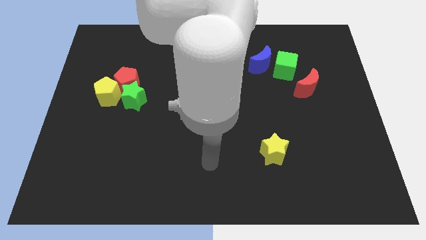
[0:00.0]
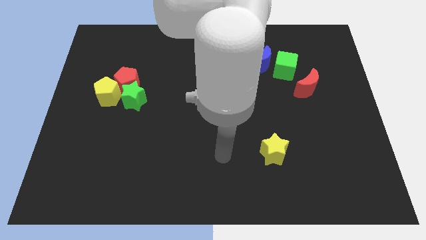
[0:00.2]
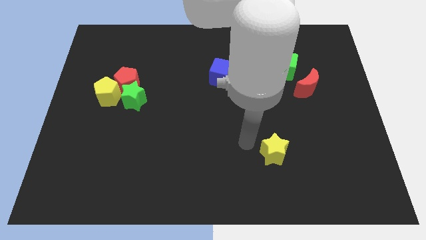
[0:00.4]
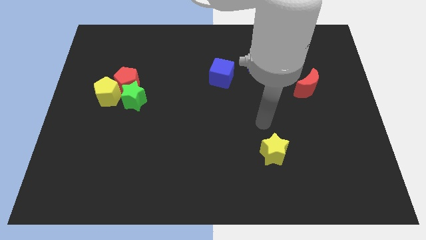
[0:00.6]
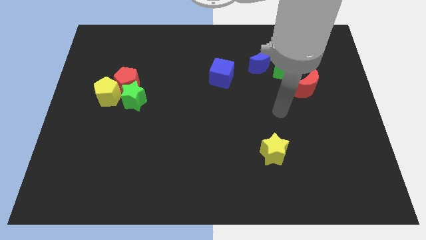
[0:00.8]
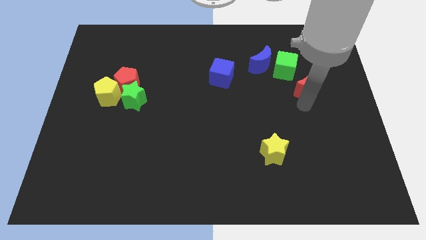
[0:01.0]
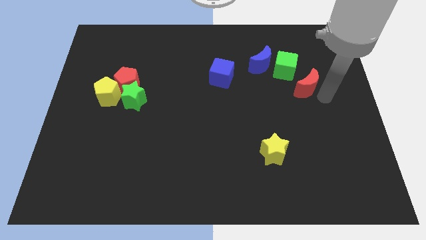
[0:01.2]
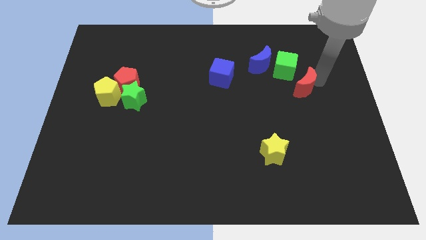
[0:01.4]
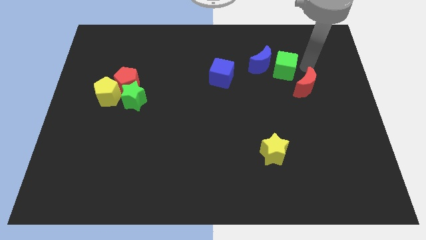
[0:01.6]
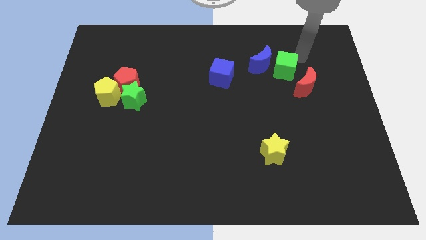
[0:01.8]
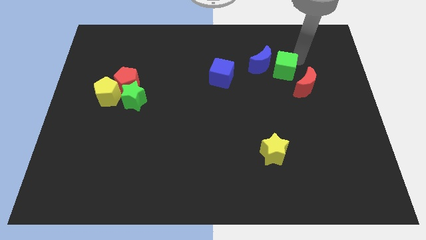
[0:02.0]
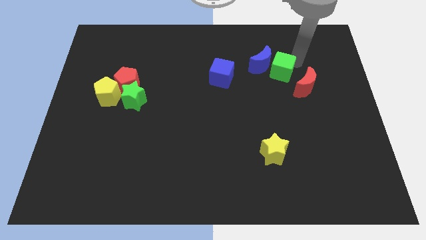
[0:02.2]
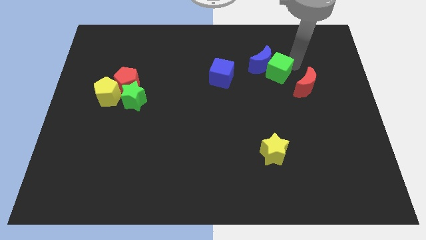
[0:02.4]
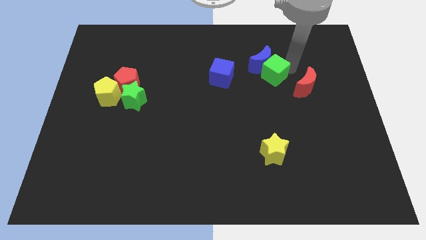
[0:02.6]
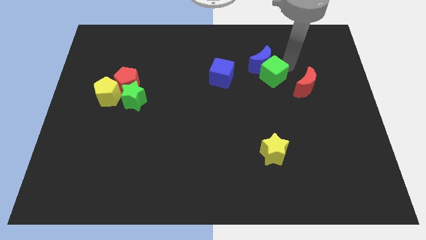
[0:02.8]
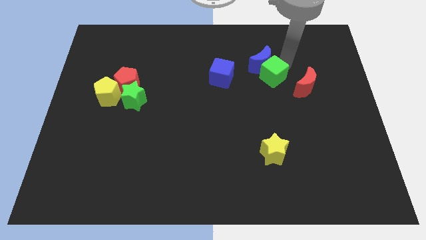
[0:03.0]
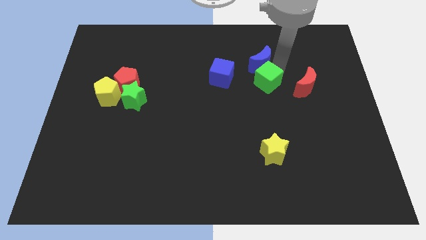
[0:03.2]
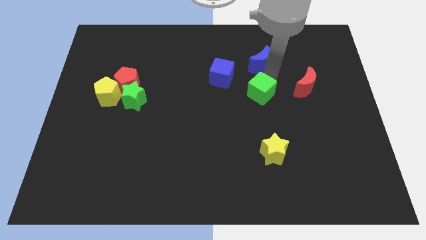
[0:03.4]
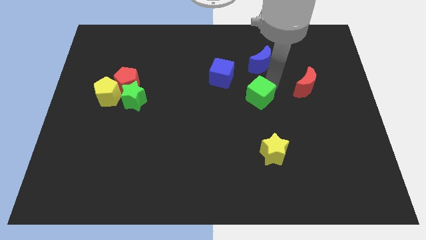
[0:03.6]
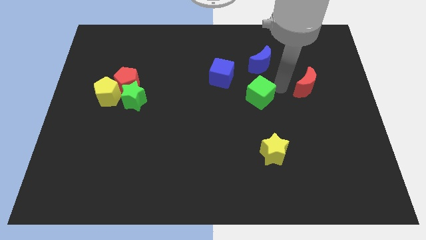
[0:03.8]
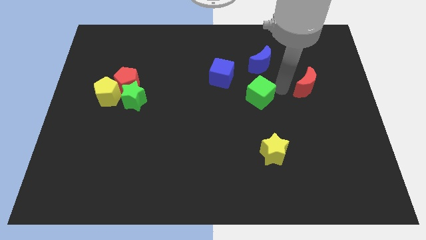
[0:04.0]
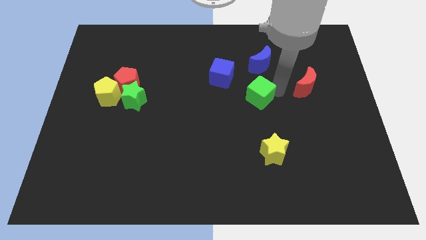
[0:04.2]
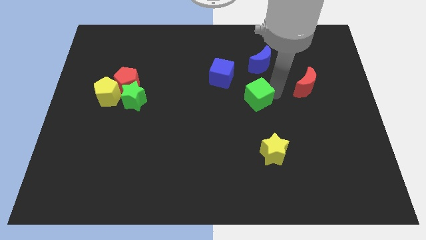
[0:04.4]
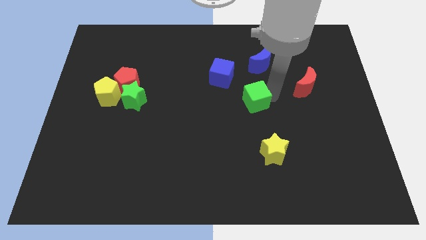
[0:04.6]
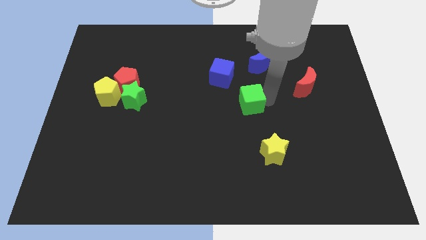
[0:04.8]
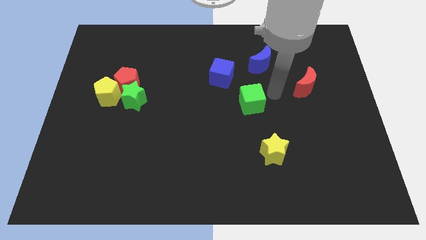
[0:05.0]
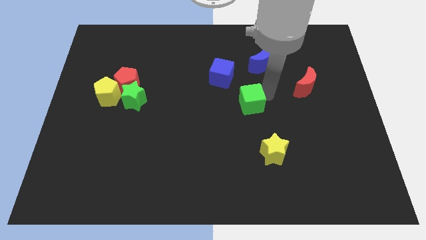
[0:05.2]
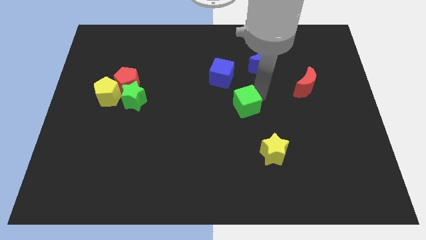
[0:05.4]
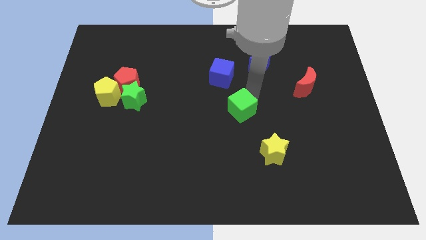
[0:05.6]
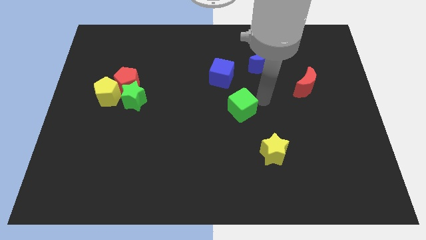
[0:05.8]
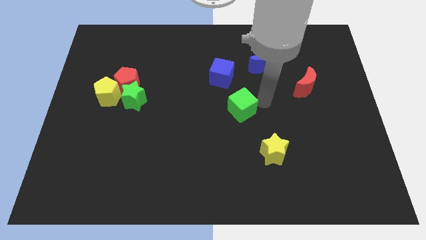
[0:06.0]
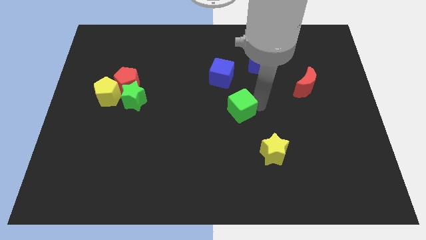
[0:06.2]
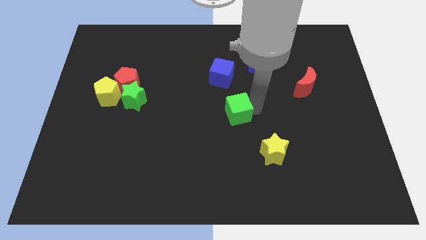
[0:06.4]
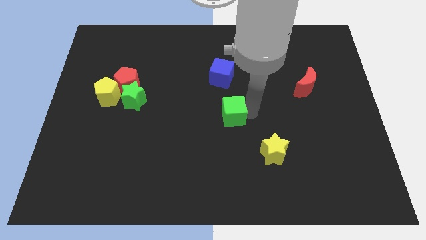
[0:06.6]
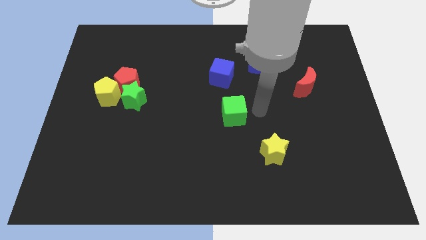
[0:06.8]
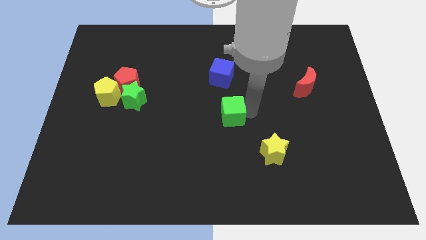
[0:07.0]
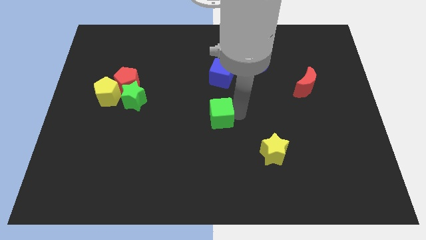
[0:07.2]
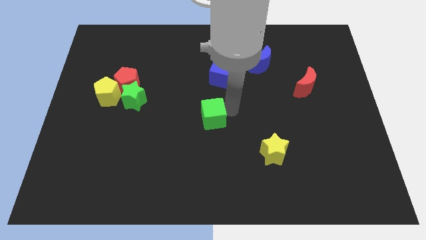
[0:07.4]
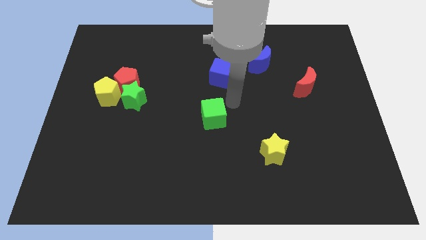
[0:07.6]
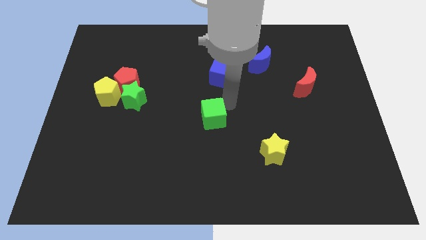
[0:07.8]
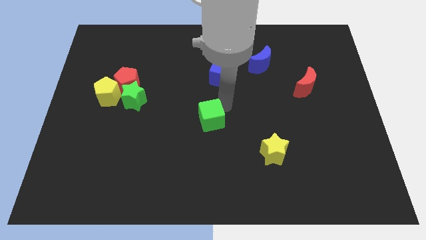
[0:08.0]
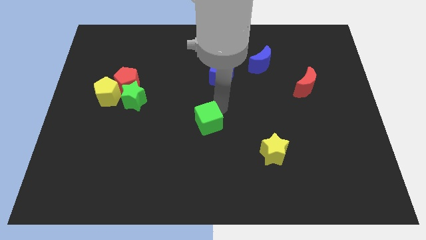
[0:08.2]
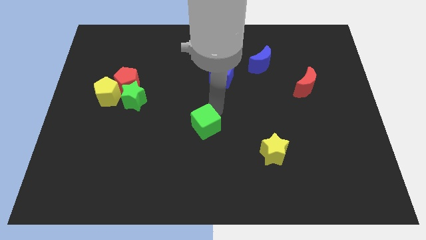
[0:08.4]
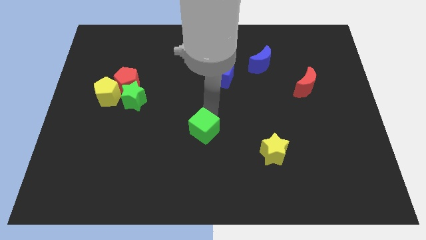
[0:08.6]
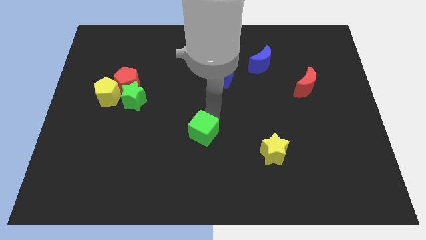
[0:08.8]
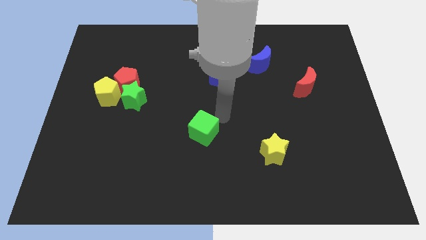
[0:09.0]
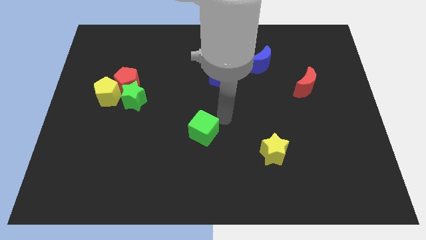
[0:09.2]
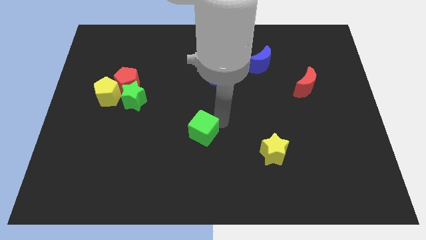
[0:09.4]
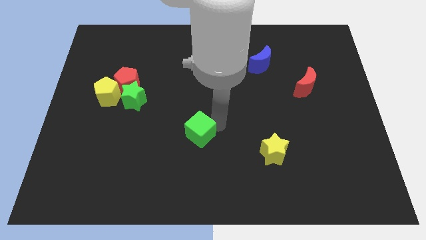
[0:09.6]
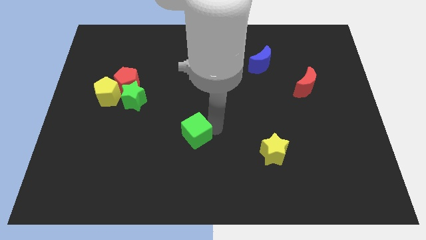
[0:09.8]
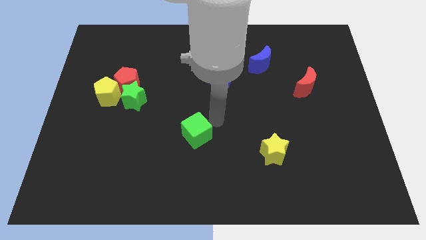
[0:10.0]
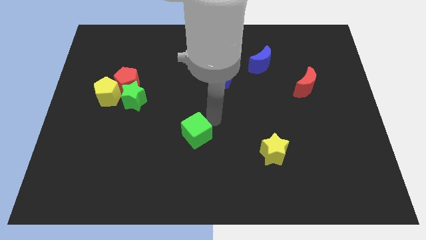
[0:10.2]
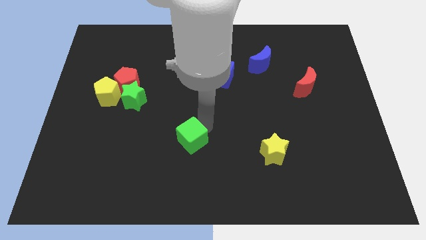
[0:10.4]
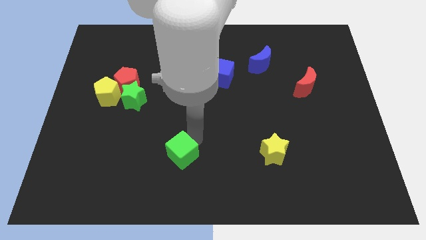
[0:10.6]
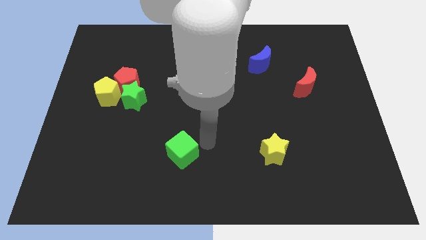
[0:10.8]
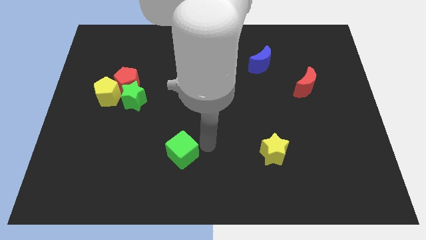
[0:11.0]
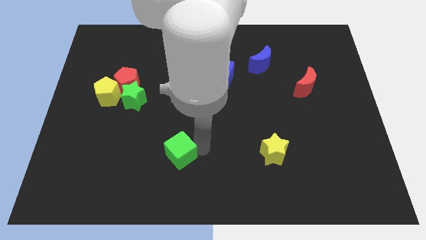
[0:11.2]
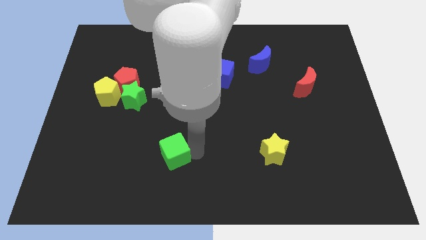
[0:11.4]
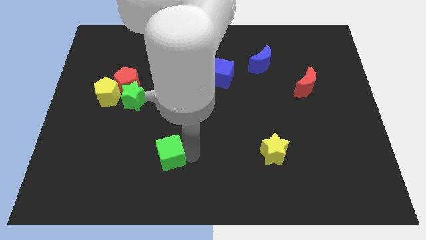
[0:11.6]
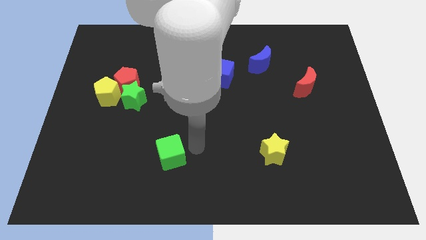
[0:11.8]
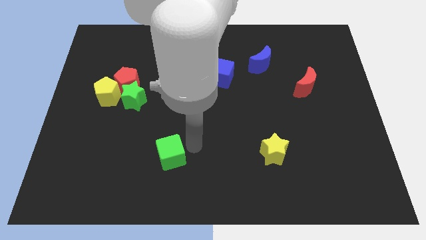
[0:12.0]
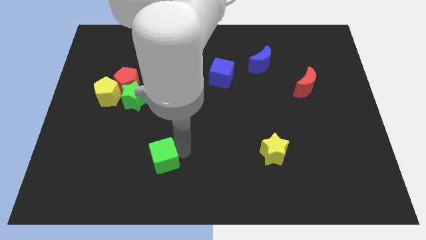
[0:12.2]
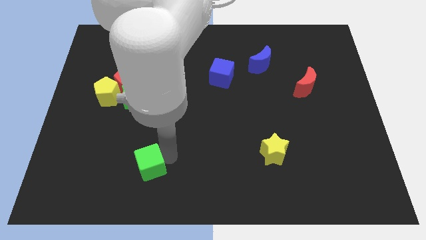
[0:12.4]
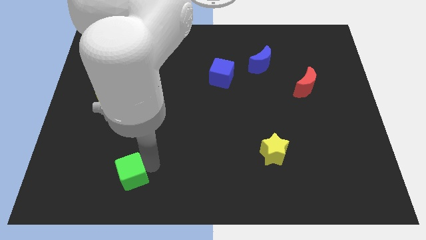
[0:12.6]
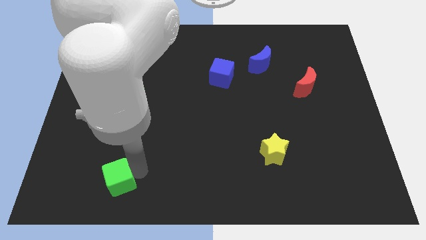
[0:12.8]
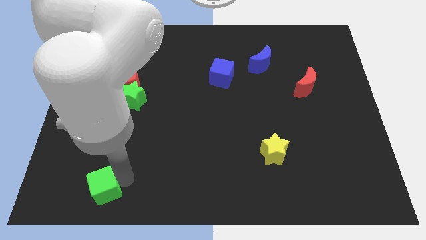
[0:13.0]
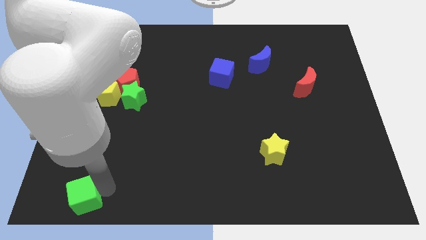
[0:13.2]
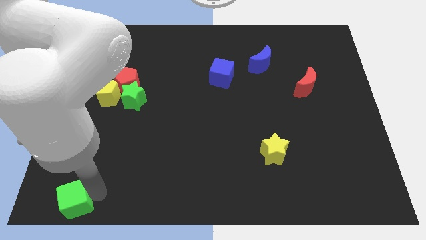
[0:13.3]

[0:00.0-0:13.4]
push the green cube to the bottom left

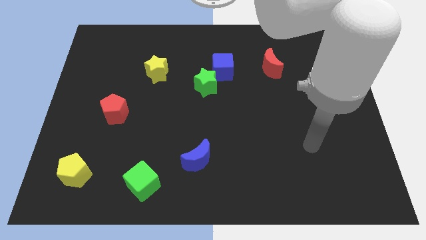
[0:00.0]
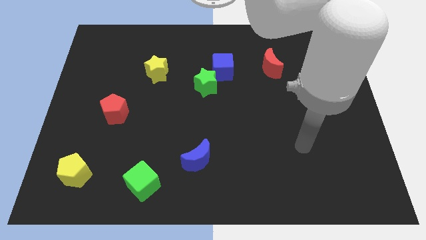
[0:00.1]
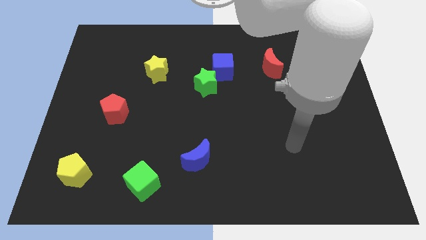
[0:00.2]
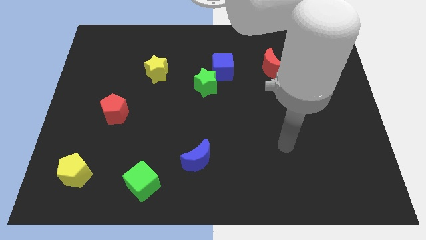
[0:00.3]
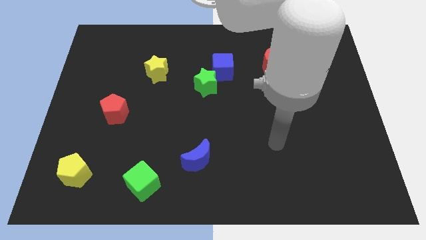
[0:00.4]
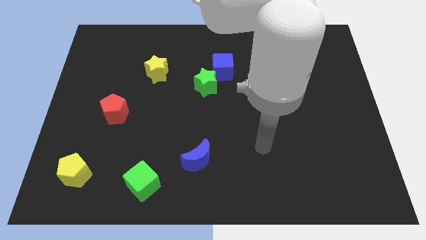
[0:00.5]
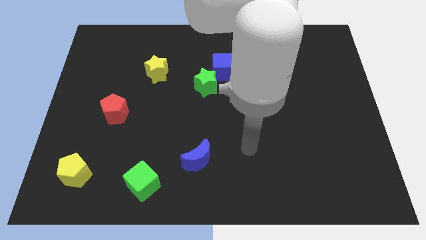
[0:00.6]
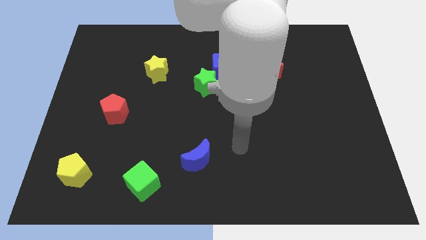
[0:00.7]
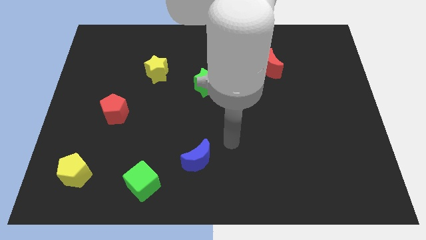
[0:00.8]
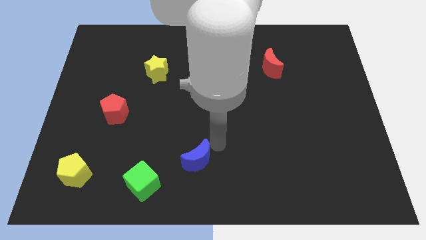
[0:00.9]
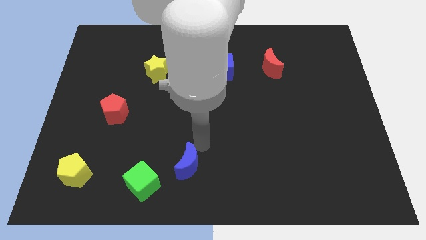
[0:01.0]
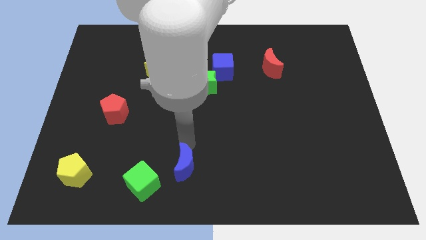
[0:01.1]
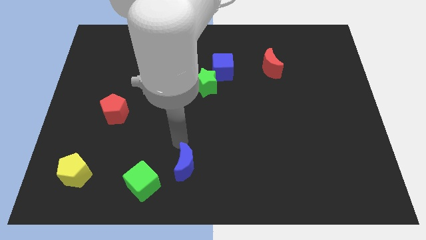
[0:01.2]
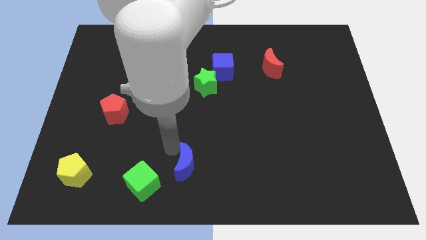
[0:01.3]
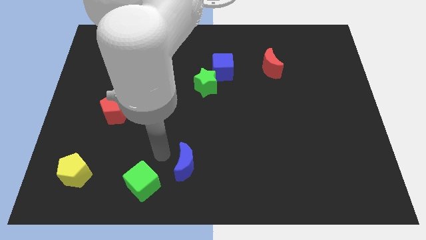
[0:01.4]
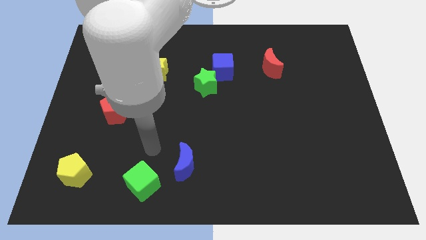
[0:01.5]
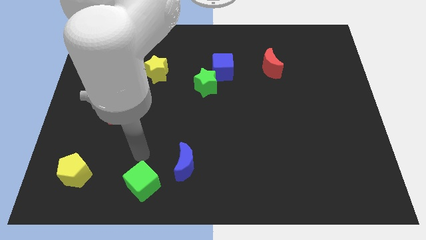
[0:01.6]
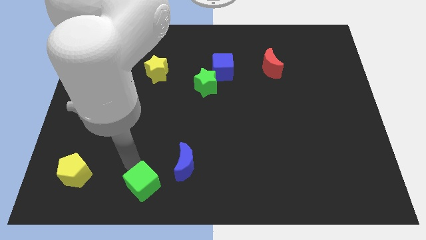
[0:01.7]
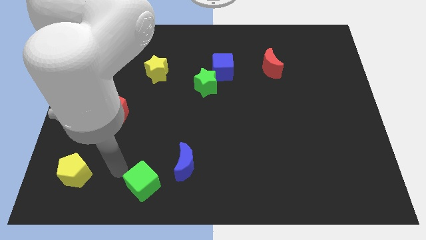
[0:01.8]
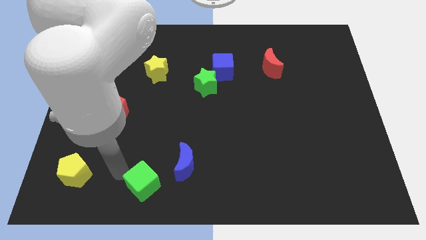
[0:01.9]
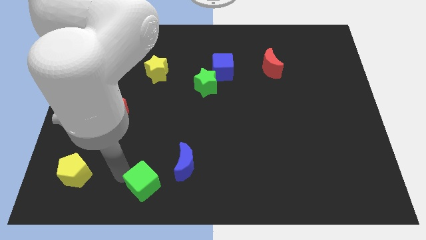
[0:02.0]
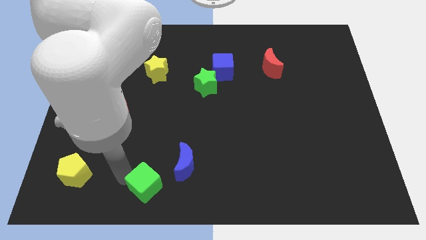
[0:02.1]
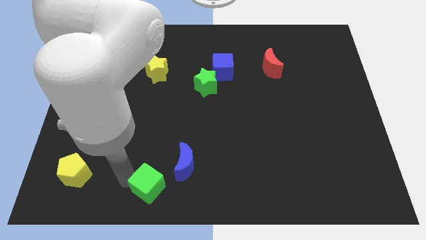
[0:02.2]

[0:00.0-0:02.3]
push the green cube to the bottom side
